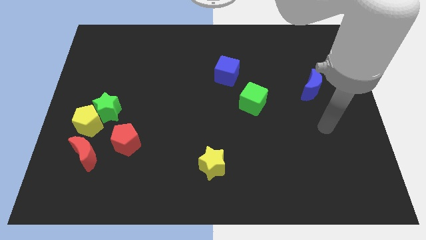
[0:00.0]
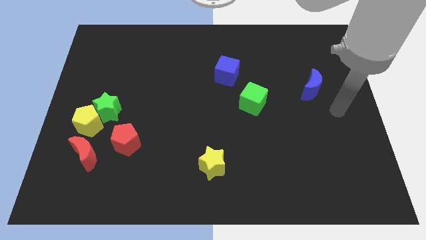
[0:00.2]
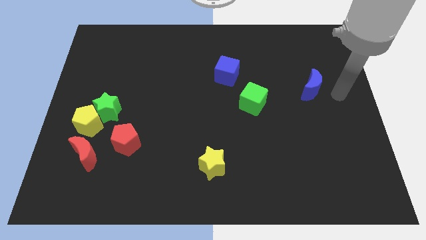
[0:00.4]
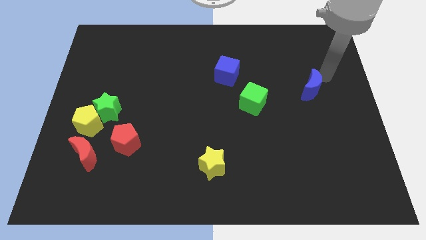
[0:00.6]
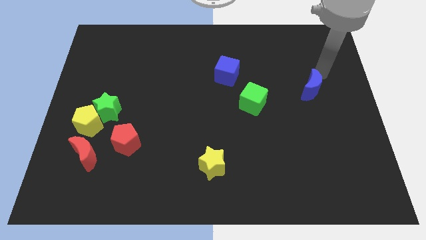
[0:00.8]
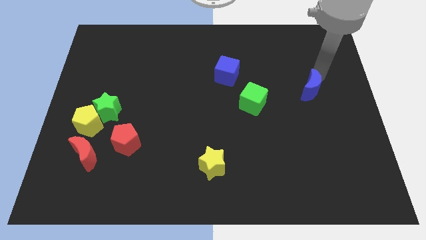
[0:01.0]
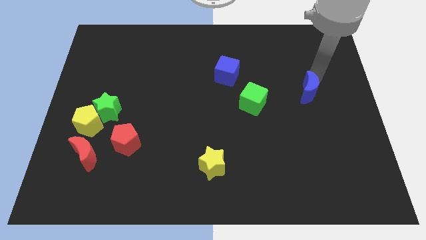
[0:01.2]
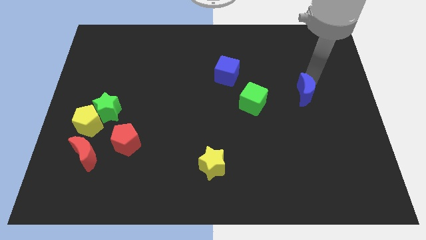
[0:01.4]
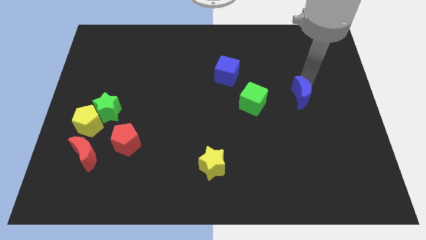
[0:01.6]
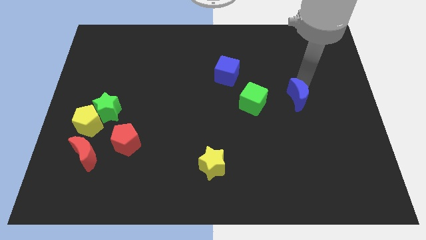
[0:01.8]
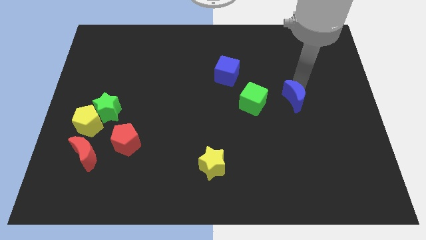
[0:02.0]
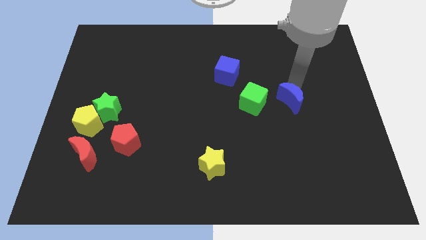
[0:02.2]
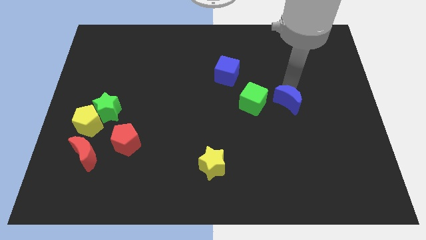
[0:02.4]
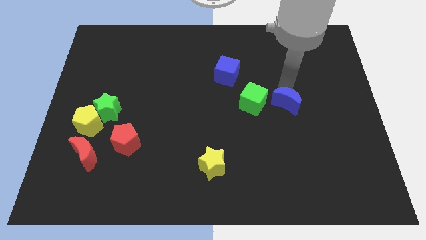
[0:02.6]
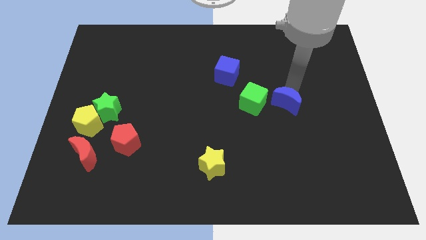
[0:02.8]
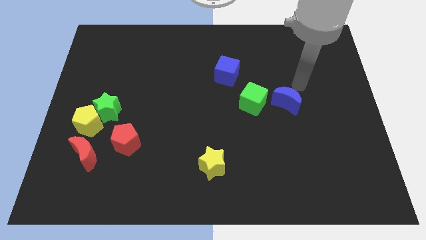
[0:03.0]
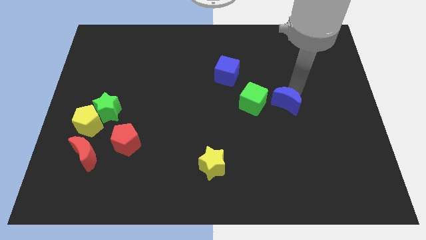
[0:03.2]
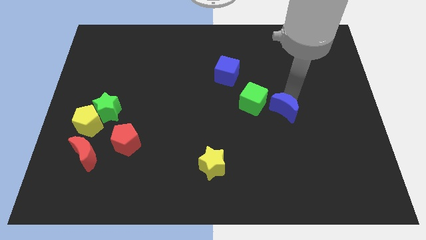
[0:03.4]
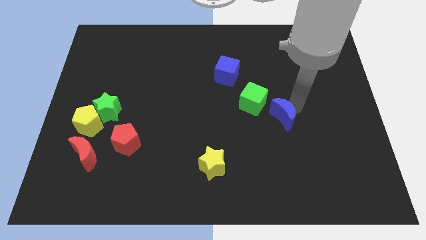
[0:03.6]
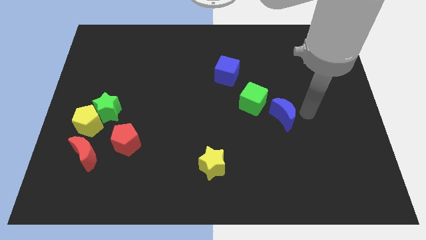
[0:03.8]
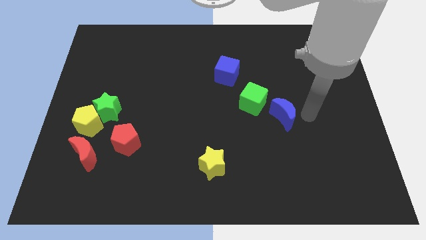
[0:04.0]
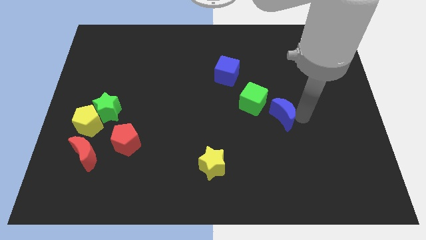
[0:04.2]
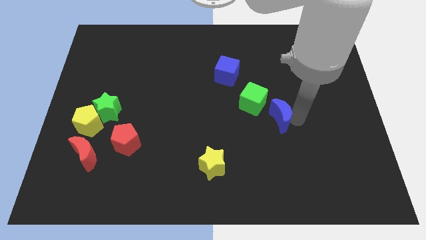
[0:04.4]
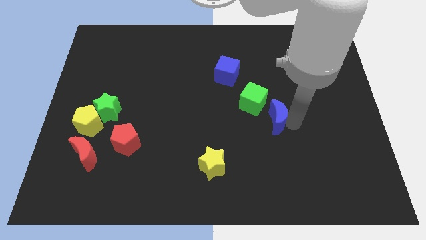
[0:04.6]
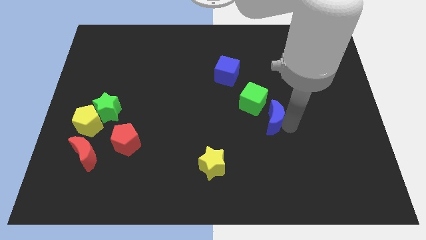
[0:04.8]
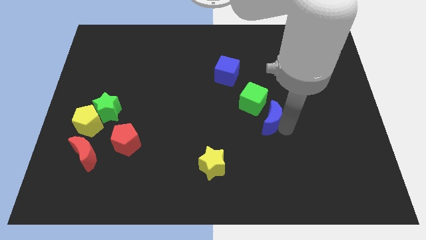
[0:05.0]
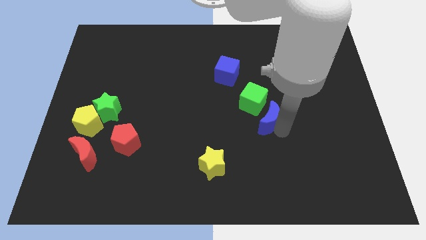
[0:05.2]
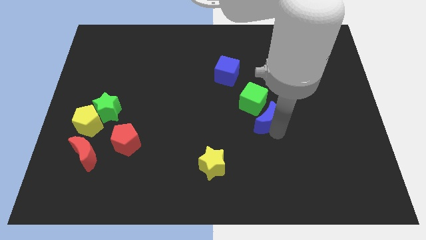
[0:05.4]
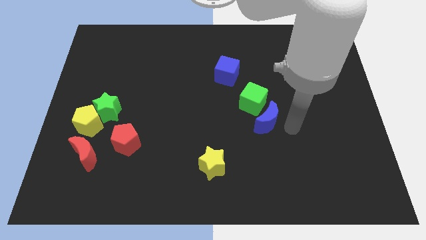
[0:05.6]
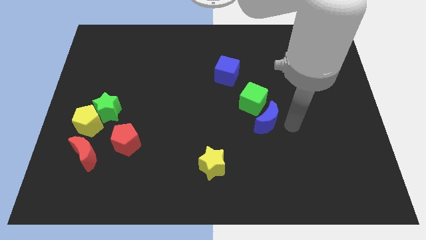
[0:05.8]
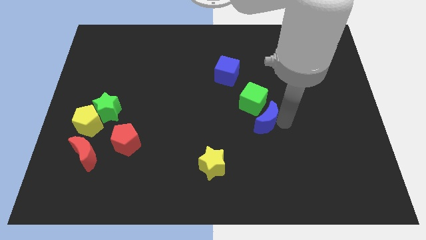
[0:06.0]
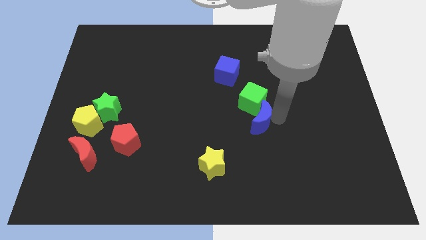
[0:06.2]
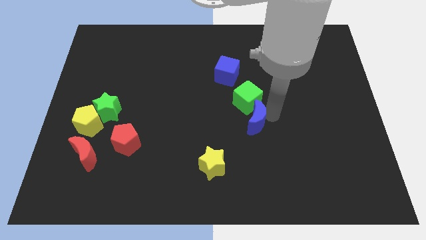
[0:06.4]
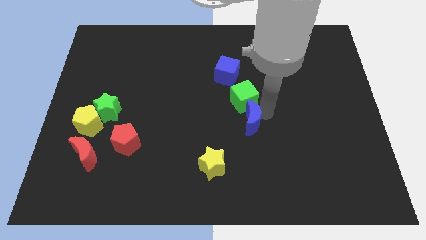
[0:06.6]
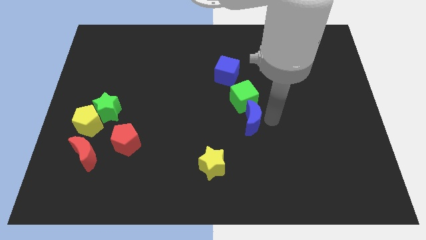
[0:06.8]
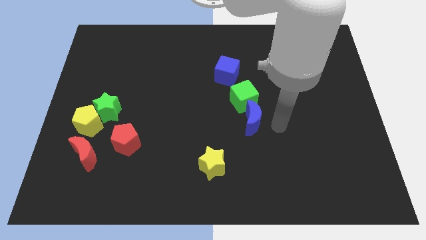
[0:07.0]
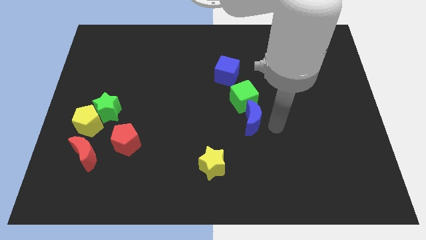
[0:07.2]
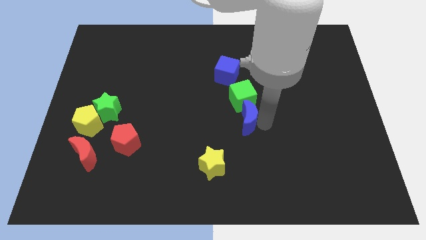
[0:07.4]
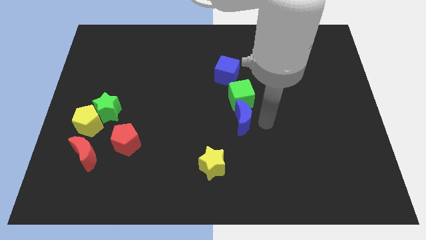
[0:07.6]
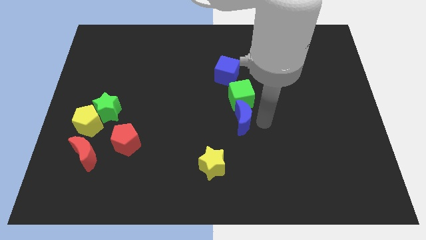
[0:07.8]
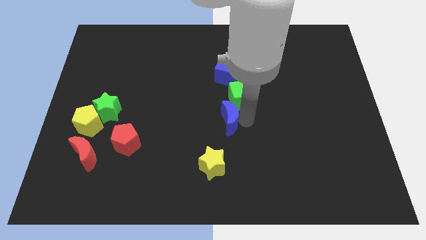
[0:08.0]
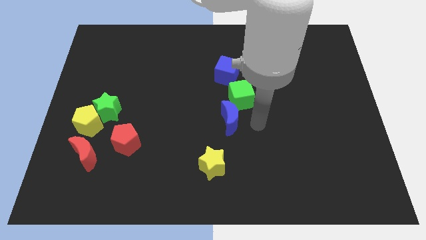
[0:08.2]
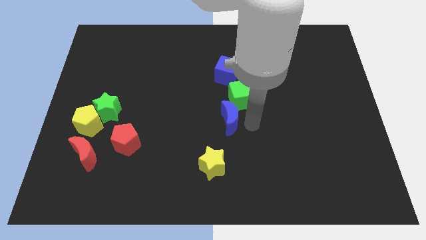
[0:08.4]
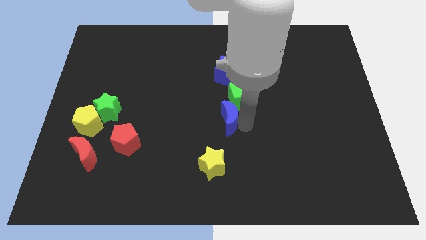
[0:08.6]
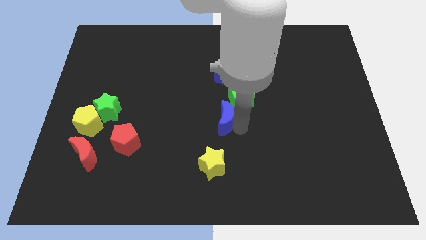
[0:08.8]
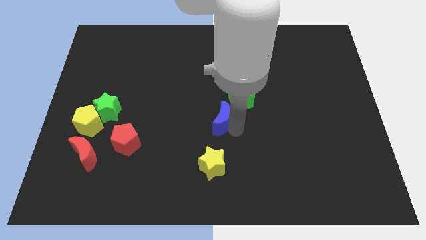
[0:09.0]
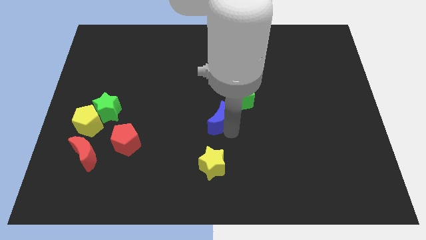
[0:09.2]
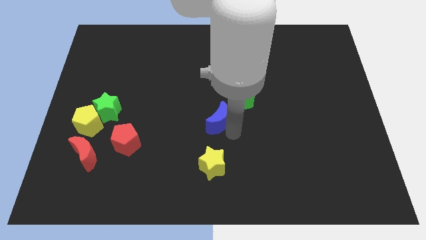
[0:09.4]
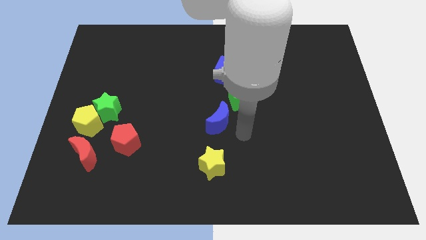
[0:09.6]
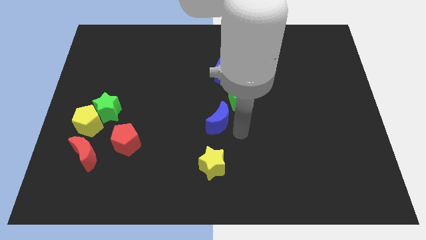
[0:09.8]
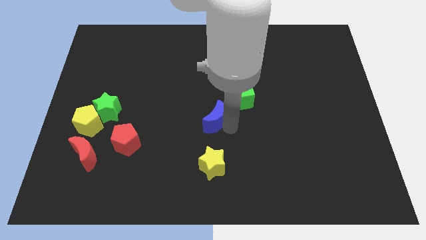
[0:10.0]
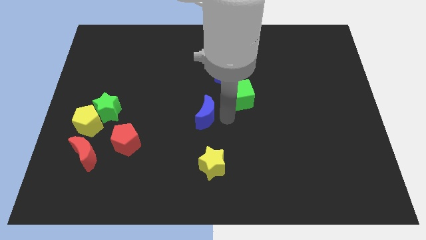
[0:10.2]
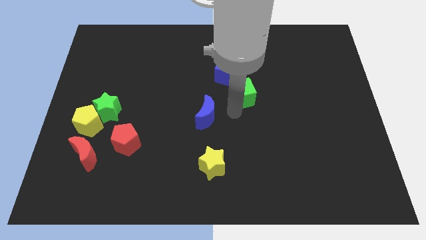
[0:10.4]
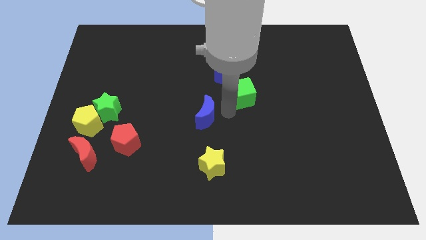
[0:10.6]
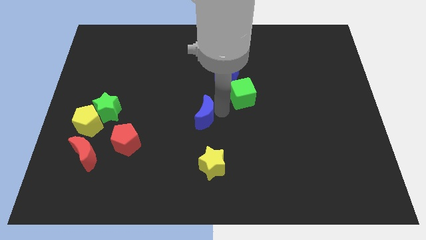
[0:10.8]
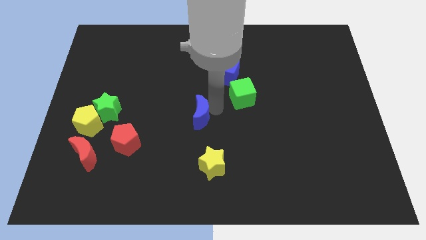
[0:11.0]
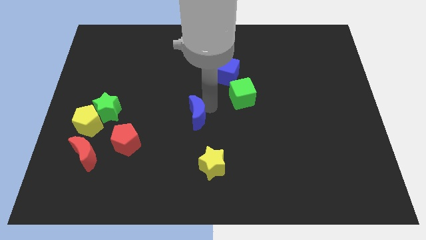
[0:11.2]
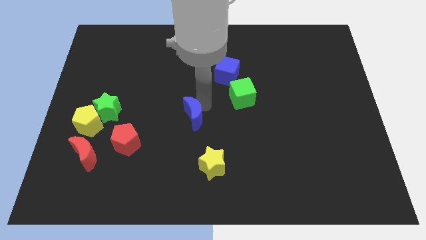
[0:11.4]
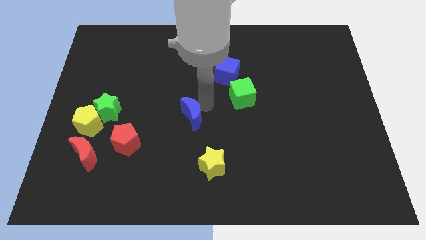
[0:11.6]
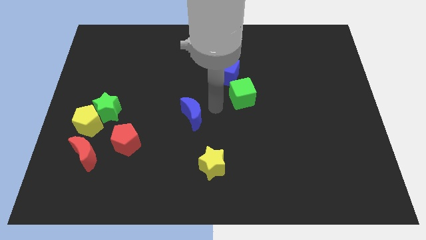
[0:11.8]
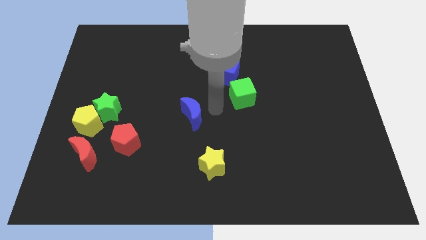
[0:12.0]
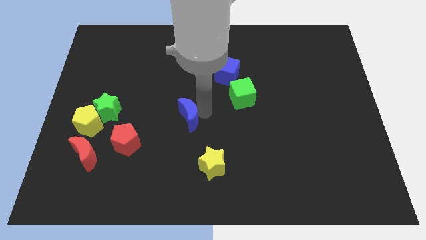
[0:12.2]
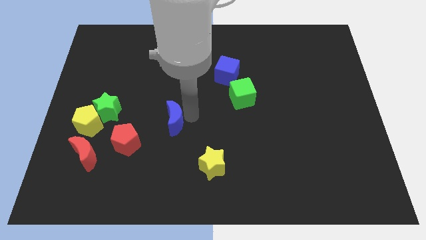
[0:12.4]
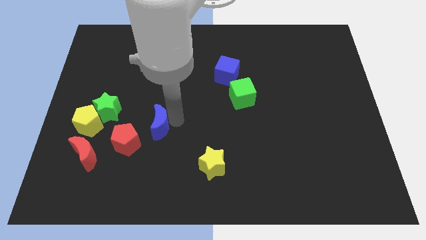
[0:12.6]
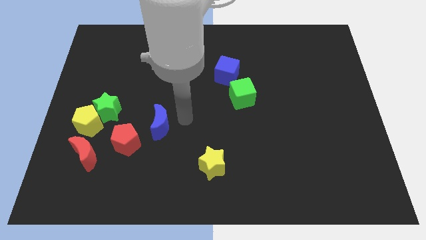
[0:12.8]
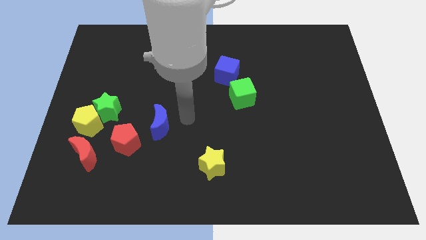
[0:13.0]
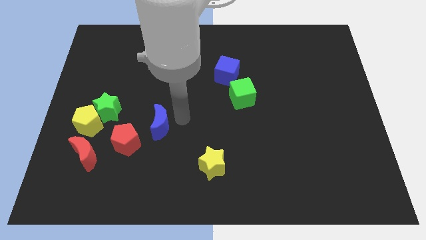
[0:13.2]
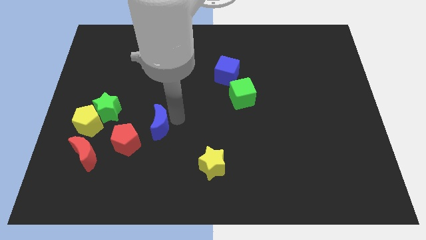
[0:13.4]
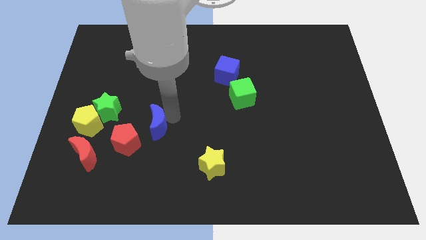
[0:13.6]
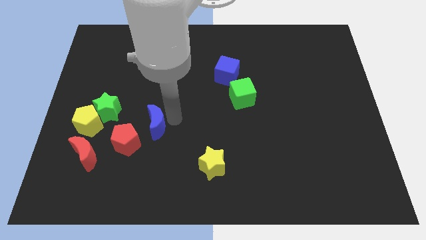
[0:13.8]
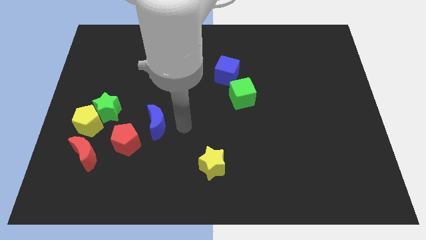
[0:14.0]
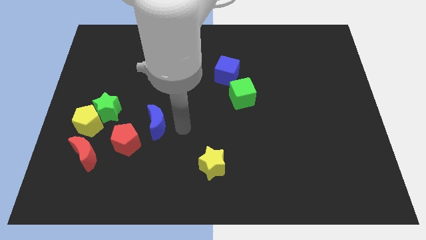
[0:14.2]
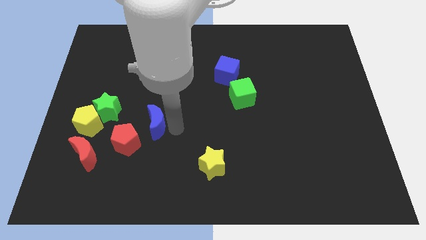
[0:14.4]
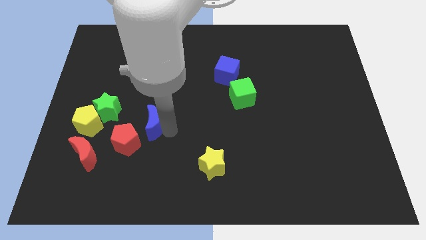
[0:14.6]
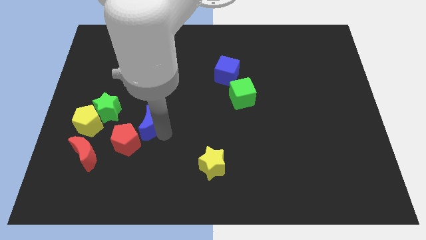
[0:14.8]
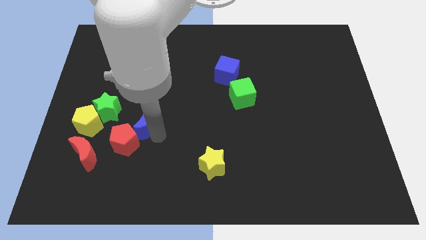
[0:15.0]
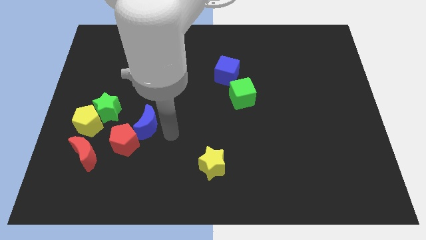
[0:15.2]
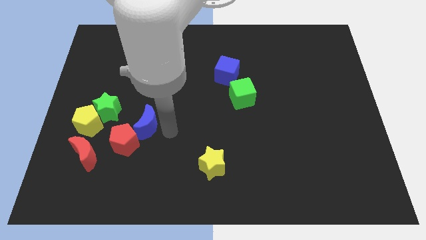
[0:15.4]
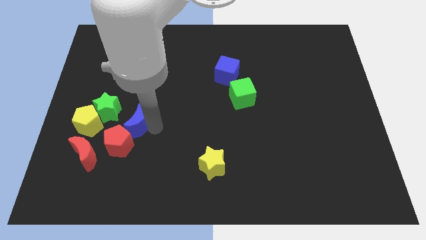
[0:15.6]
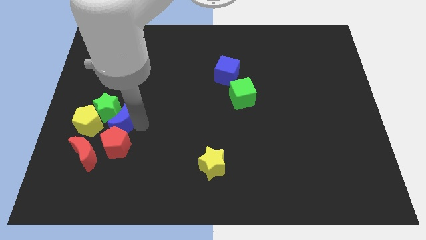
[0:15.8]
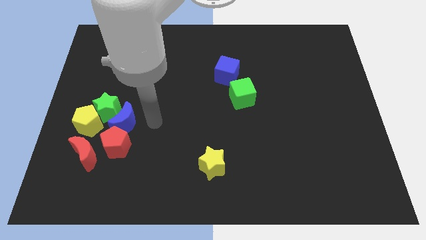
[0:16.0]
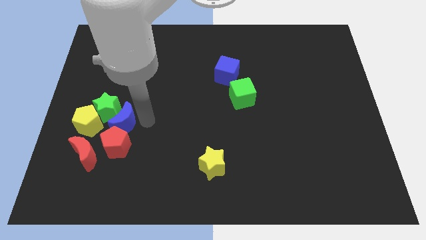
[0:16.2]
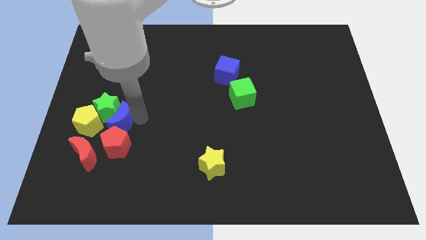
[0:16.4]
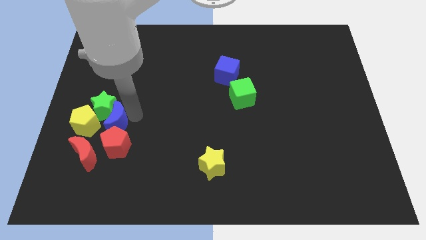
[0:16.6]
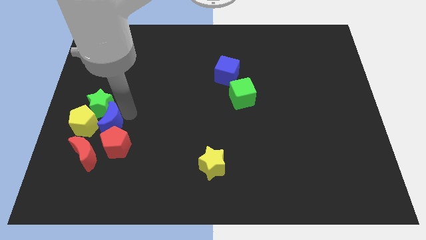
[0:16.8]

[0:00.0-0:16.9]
push the blue moon to the yellow pentagon
